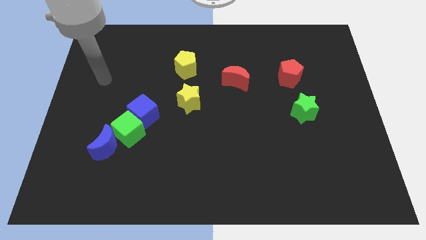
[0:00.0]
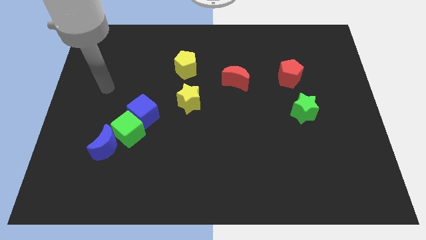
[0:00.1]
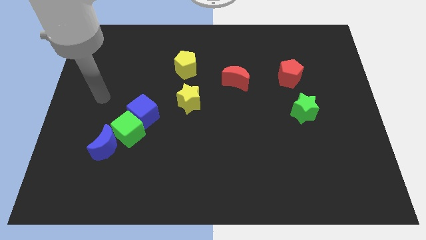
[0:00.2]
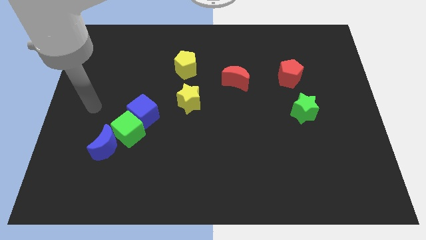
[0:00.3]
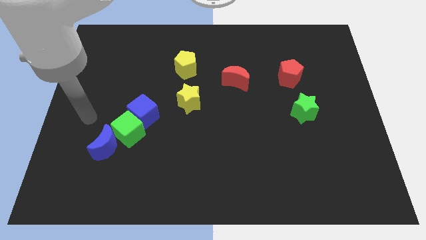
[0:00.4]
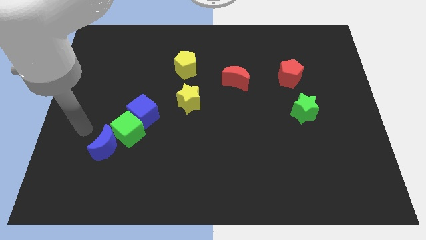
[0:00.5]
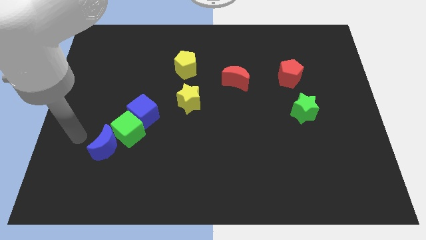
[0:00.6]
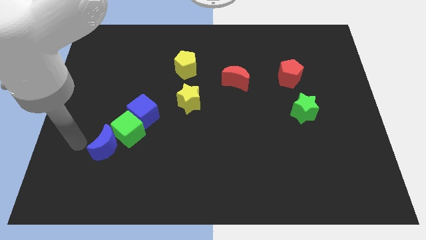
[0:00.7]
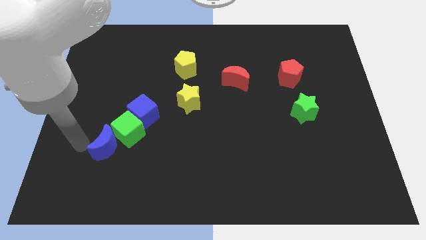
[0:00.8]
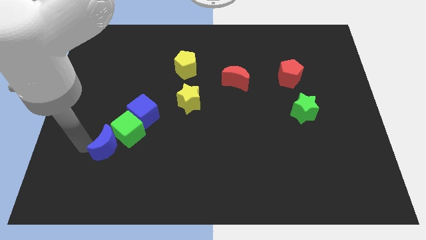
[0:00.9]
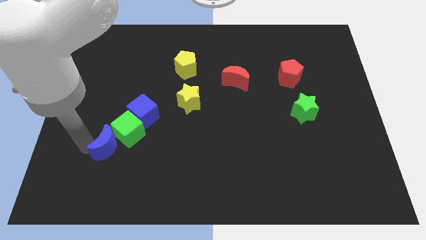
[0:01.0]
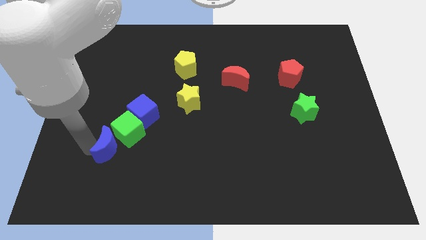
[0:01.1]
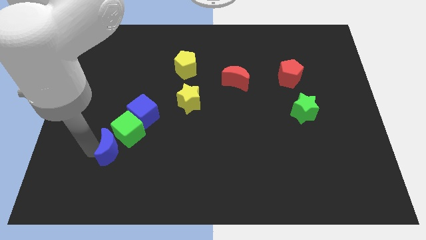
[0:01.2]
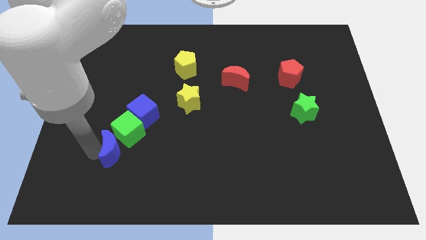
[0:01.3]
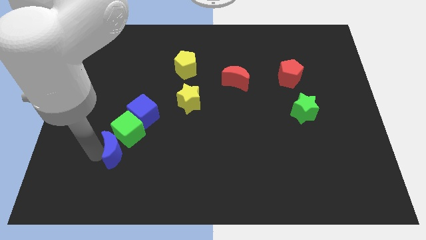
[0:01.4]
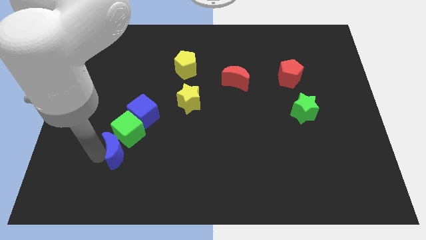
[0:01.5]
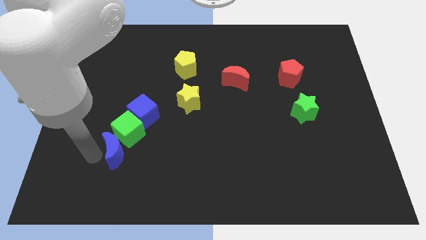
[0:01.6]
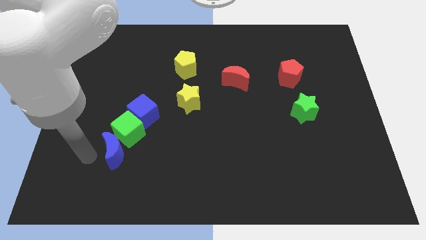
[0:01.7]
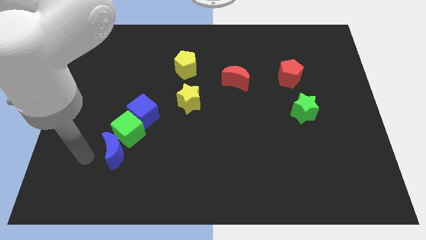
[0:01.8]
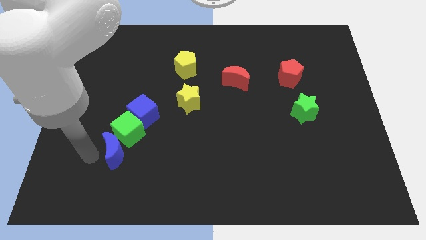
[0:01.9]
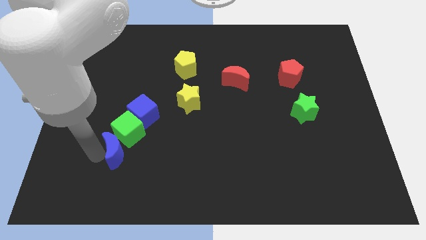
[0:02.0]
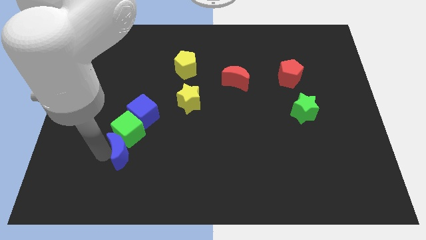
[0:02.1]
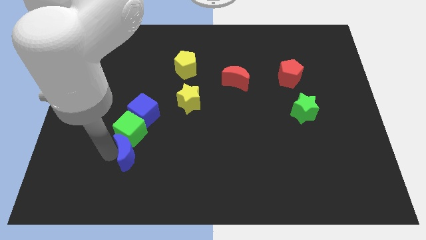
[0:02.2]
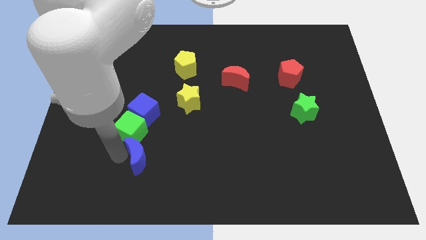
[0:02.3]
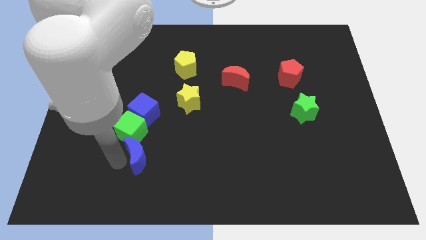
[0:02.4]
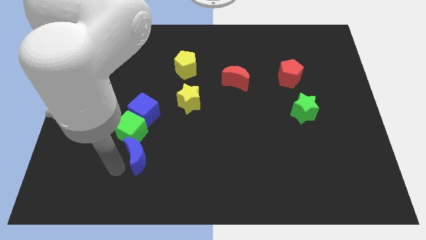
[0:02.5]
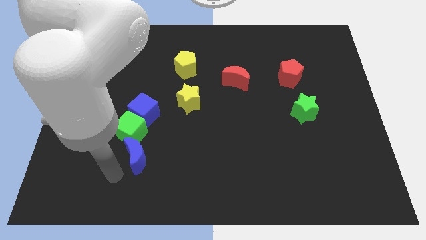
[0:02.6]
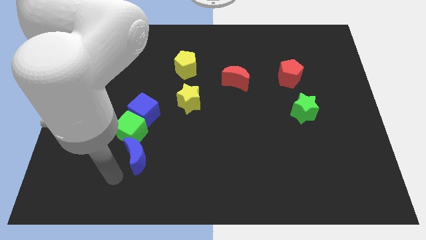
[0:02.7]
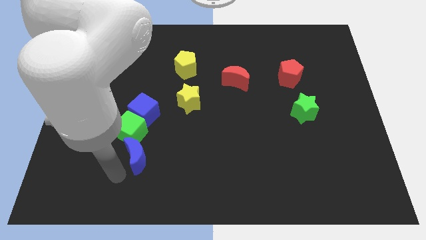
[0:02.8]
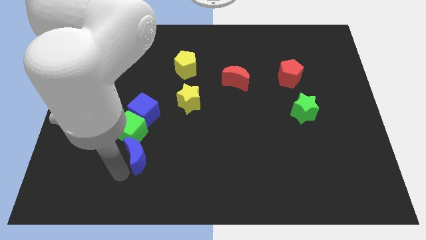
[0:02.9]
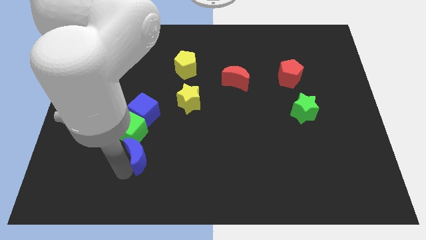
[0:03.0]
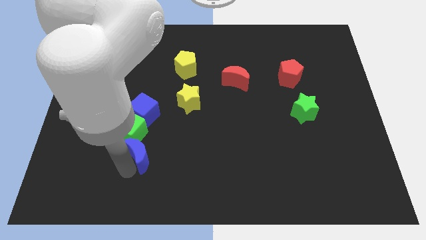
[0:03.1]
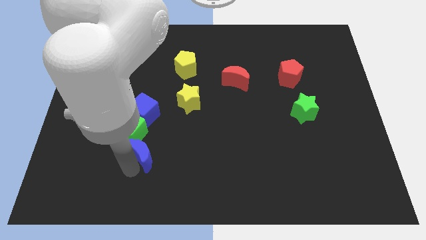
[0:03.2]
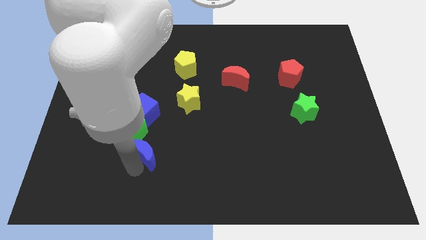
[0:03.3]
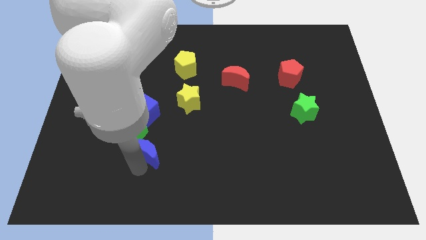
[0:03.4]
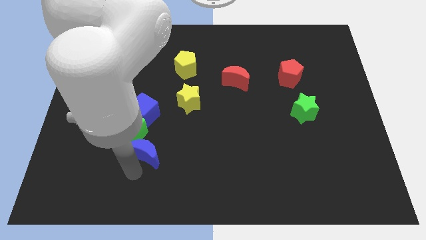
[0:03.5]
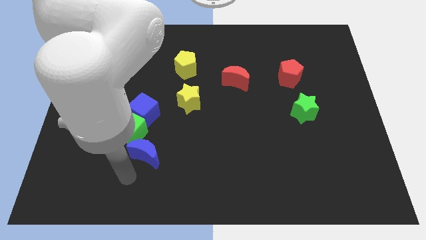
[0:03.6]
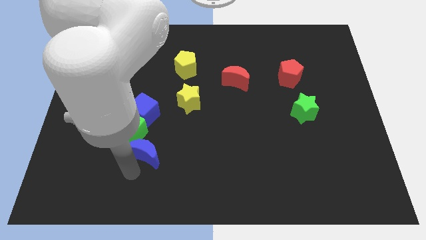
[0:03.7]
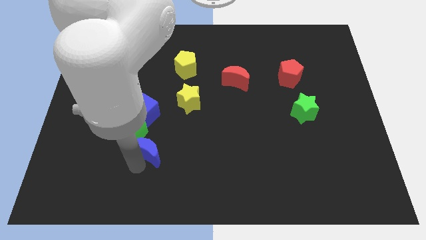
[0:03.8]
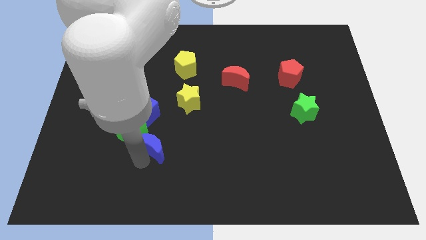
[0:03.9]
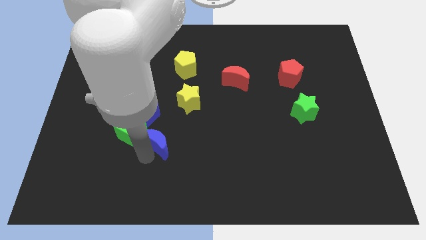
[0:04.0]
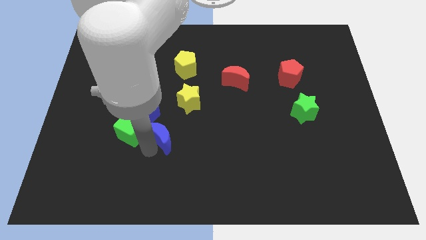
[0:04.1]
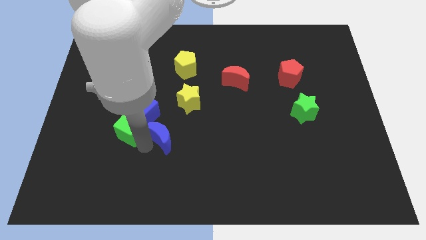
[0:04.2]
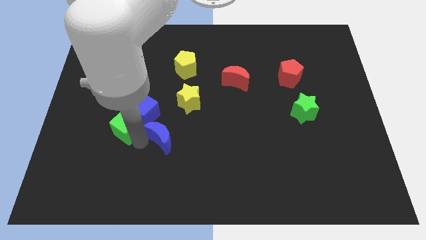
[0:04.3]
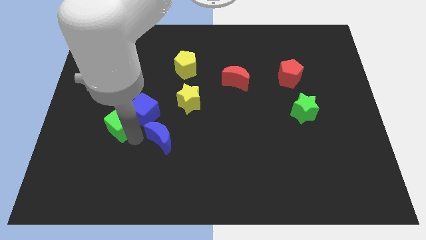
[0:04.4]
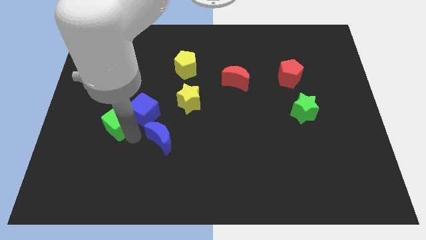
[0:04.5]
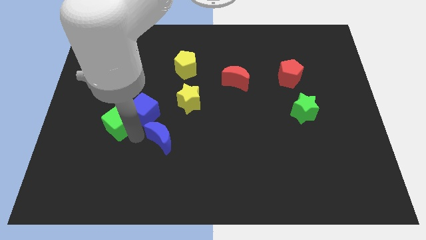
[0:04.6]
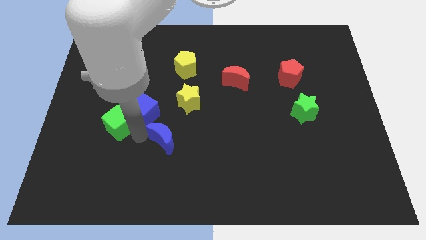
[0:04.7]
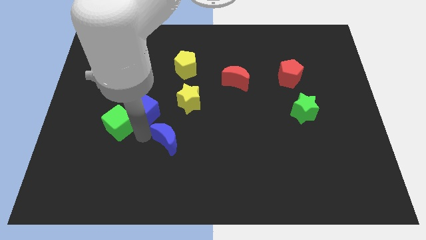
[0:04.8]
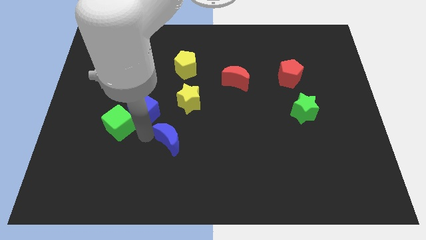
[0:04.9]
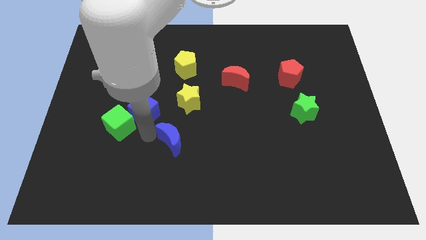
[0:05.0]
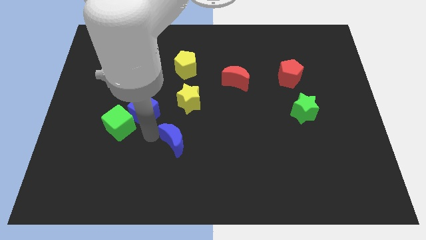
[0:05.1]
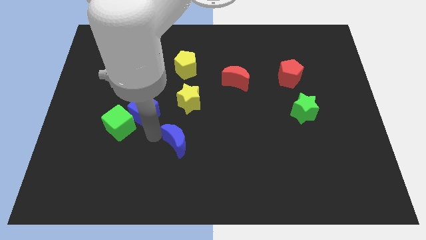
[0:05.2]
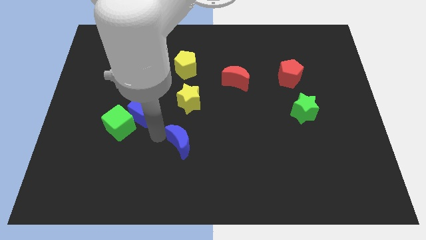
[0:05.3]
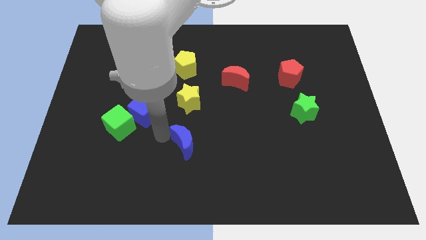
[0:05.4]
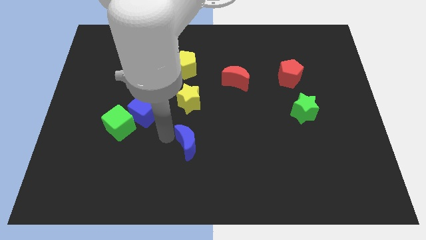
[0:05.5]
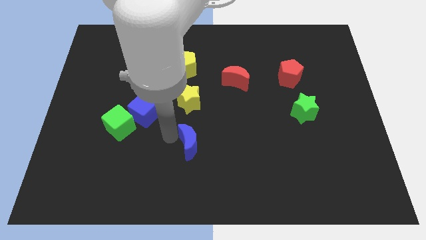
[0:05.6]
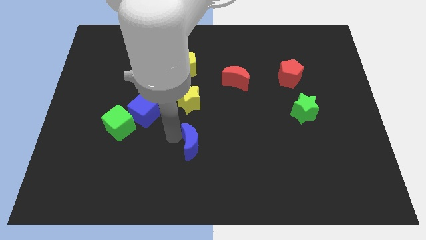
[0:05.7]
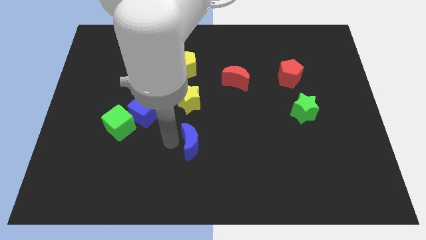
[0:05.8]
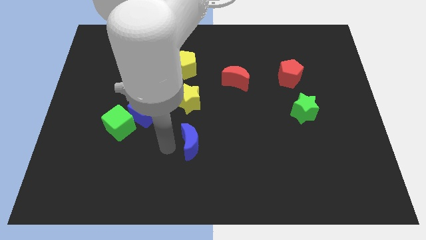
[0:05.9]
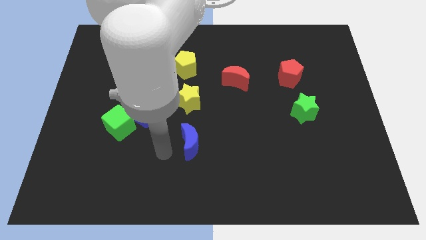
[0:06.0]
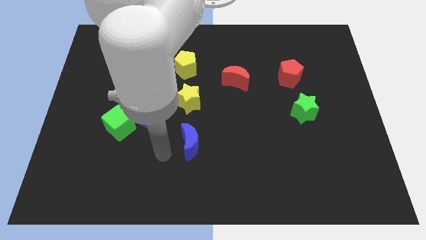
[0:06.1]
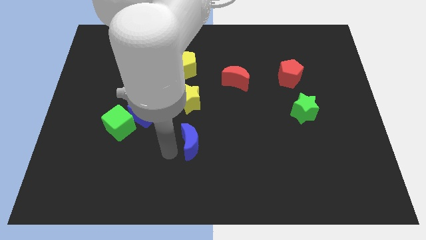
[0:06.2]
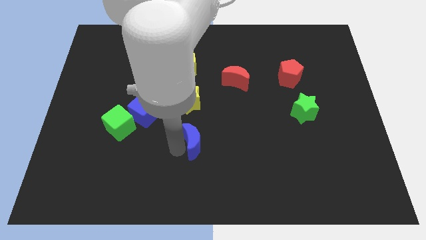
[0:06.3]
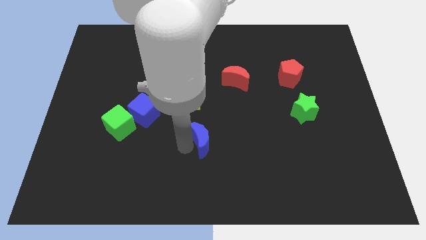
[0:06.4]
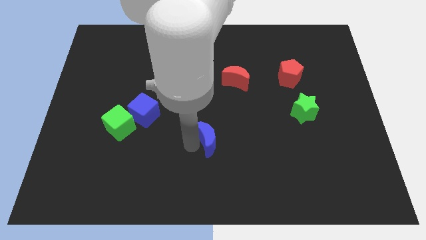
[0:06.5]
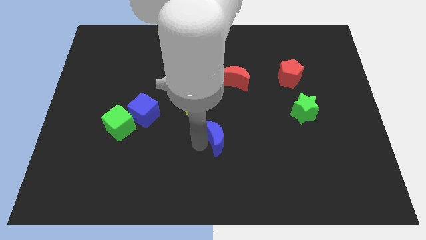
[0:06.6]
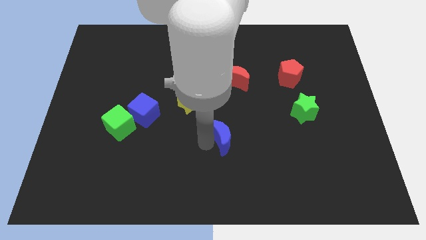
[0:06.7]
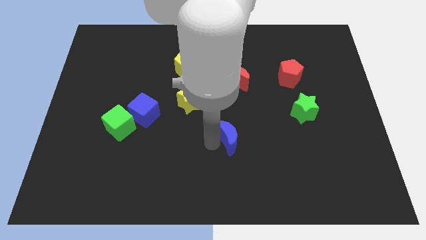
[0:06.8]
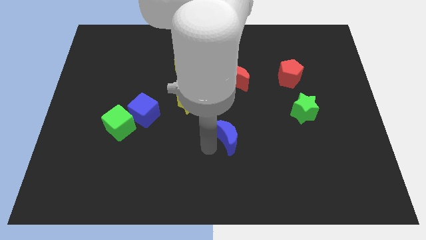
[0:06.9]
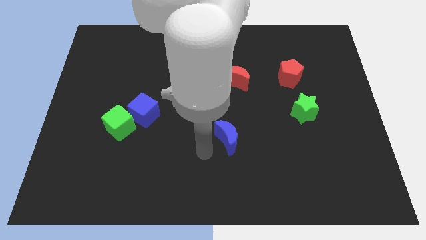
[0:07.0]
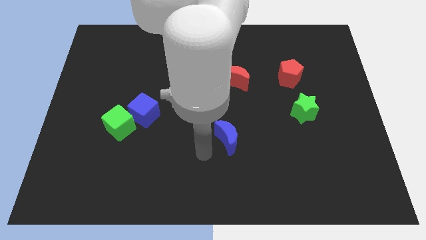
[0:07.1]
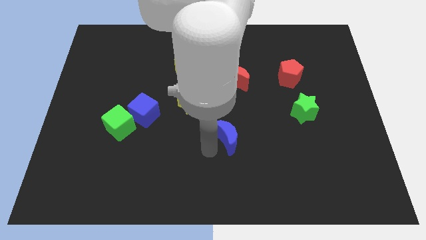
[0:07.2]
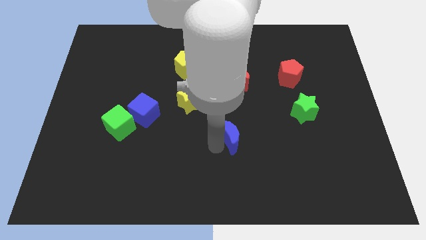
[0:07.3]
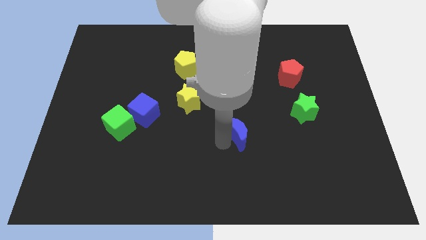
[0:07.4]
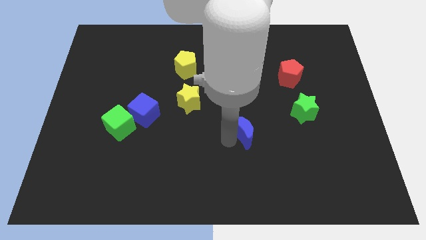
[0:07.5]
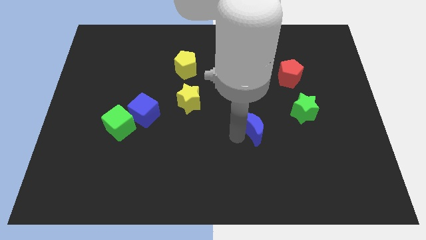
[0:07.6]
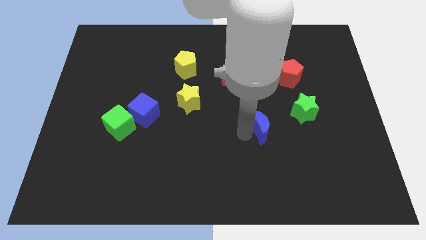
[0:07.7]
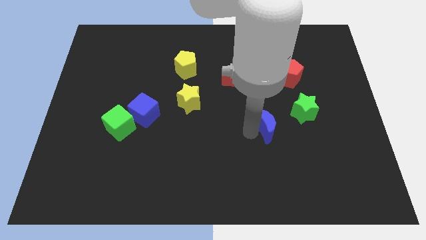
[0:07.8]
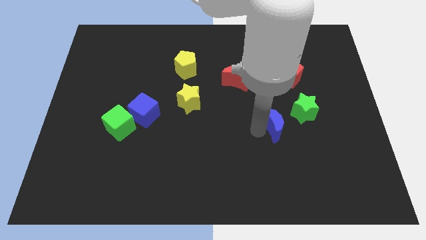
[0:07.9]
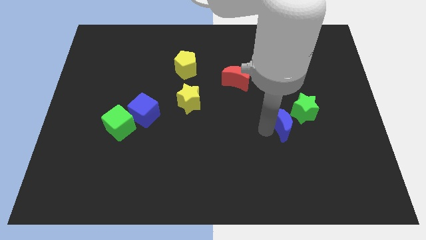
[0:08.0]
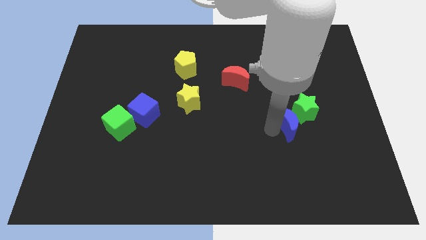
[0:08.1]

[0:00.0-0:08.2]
move the blue moon next to the green star
